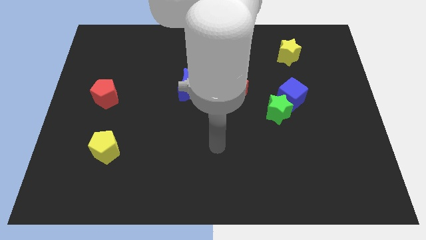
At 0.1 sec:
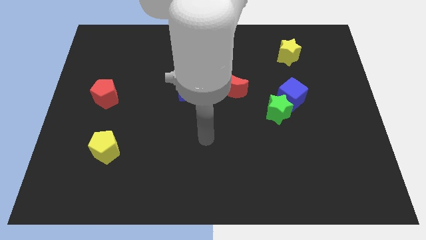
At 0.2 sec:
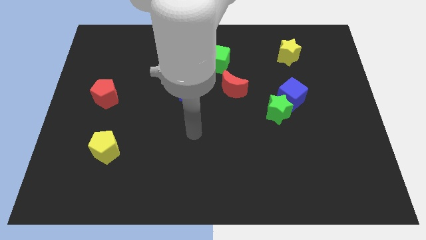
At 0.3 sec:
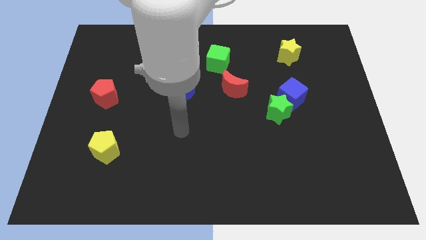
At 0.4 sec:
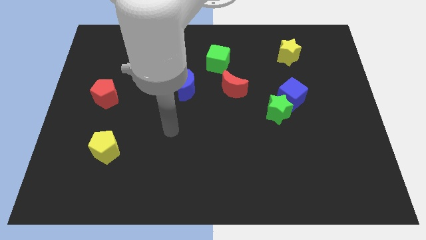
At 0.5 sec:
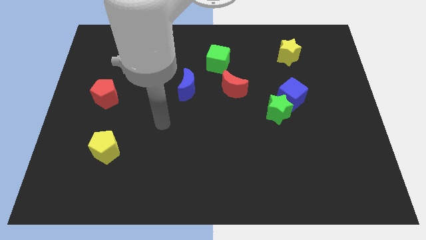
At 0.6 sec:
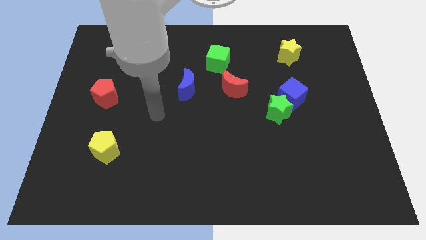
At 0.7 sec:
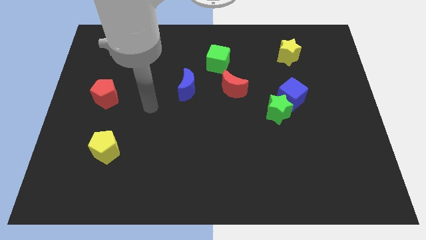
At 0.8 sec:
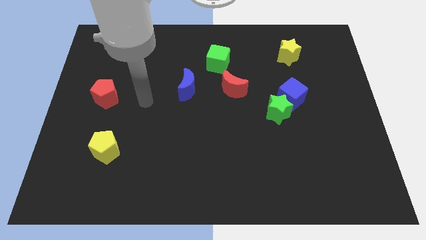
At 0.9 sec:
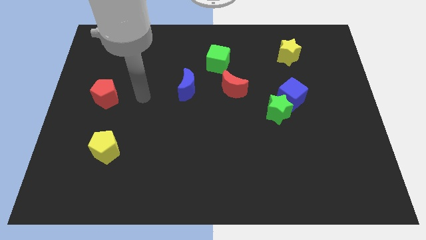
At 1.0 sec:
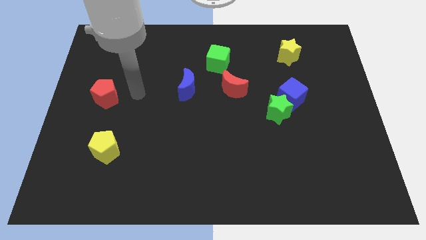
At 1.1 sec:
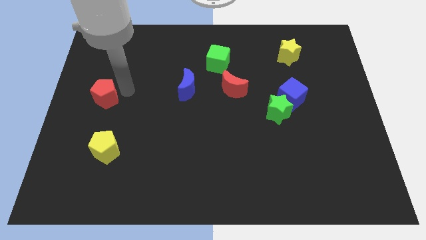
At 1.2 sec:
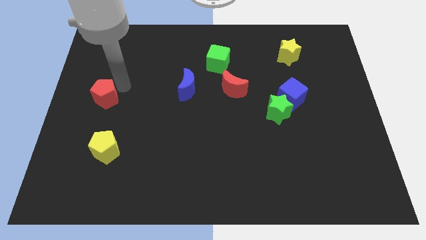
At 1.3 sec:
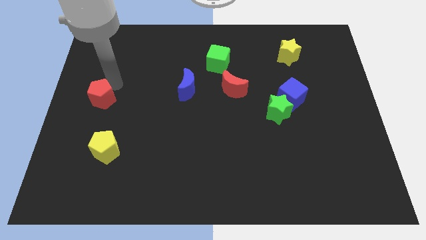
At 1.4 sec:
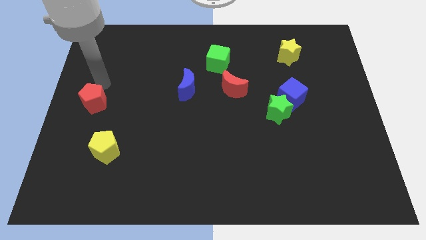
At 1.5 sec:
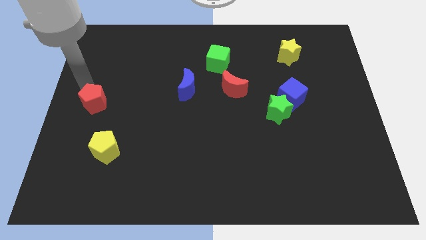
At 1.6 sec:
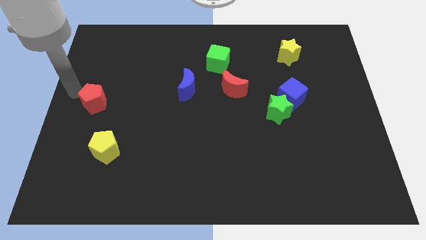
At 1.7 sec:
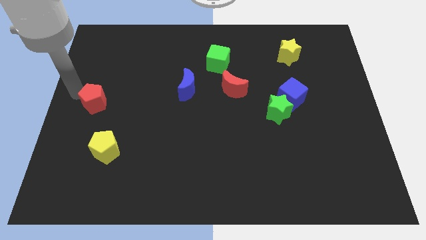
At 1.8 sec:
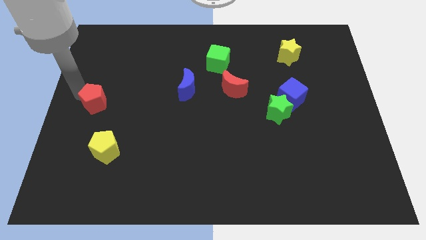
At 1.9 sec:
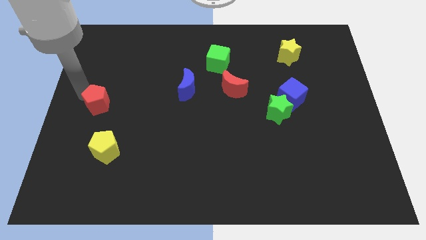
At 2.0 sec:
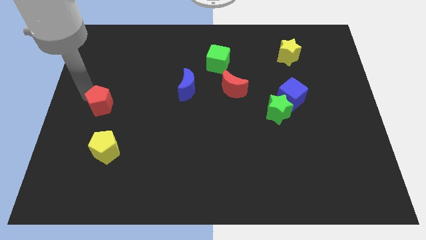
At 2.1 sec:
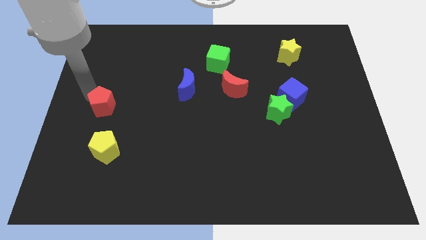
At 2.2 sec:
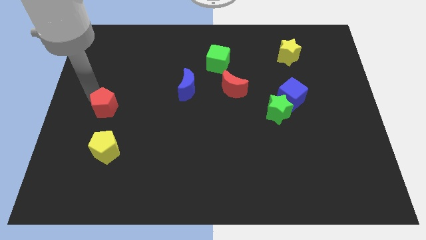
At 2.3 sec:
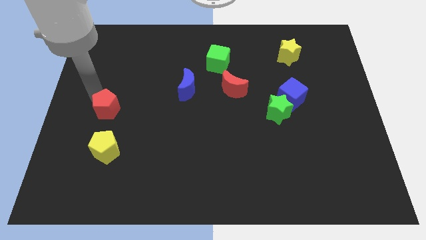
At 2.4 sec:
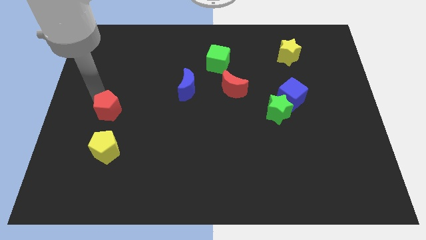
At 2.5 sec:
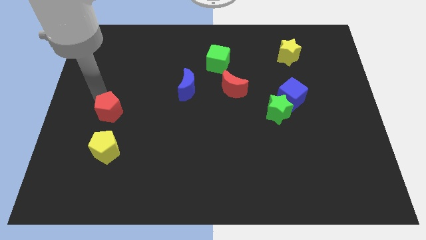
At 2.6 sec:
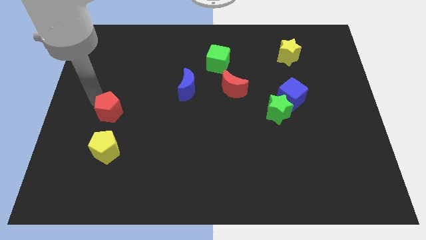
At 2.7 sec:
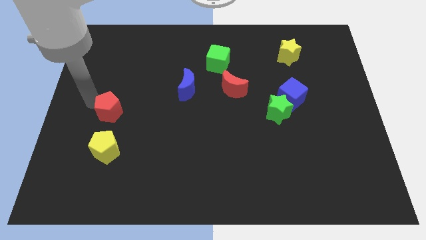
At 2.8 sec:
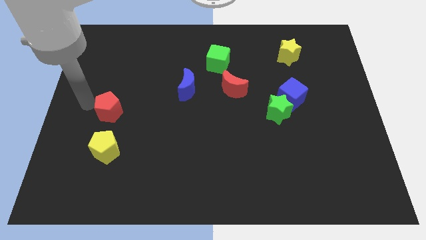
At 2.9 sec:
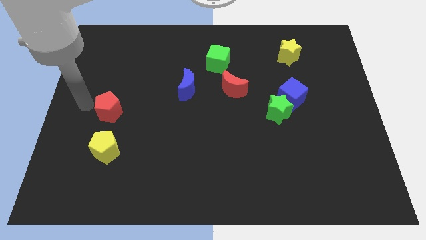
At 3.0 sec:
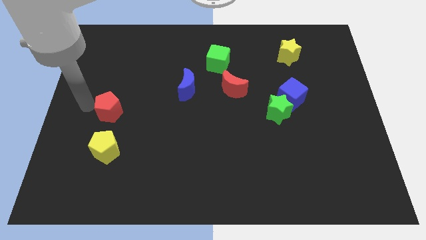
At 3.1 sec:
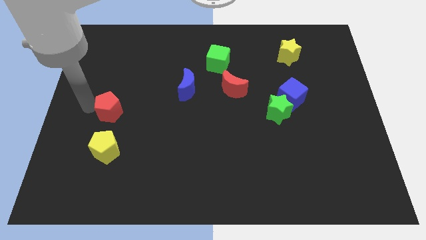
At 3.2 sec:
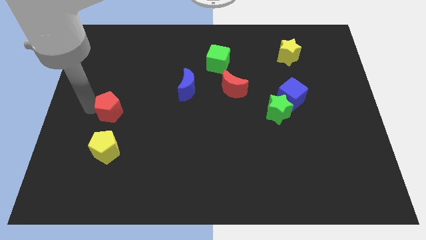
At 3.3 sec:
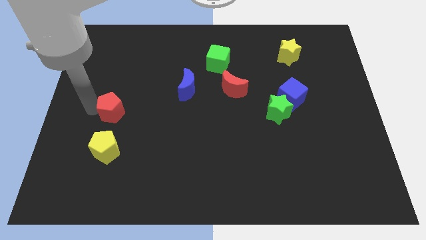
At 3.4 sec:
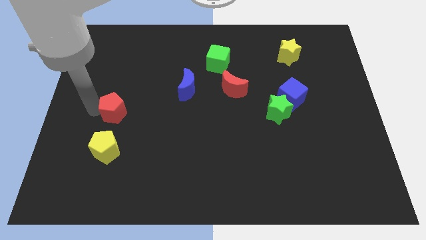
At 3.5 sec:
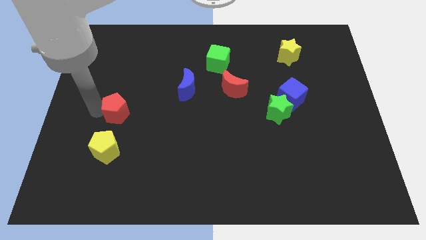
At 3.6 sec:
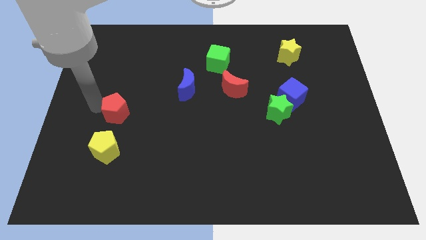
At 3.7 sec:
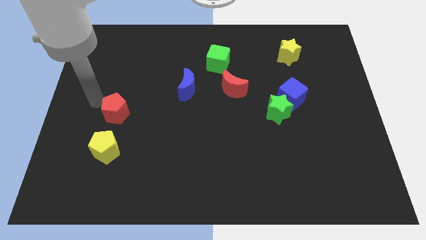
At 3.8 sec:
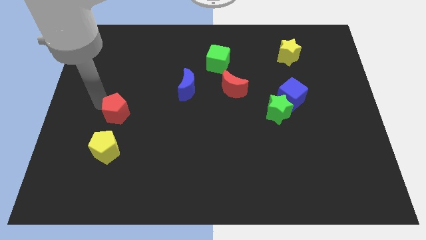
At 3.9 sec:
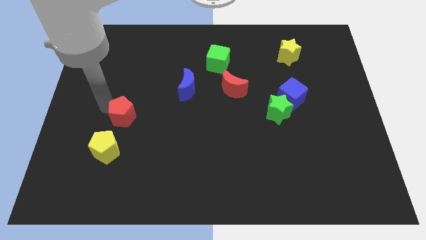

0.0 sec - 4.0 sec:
move the red pentagon somewhat down and then right

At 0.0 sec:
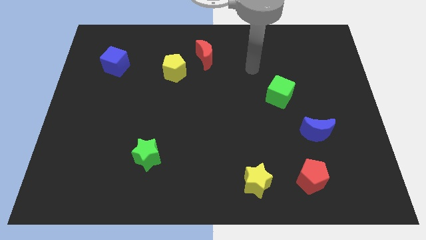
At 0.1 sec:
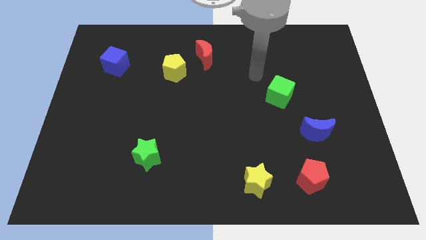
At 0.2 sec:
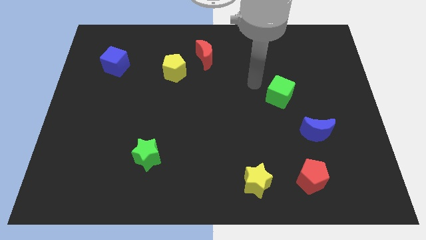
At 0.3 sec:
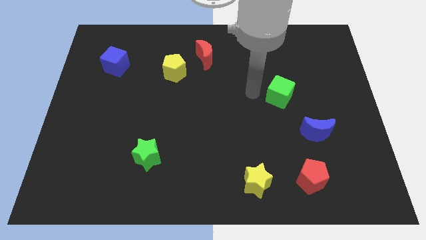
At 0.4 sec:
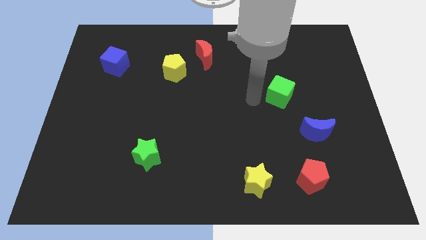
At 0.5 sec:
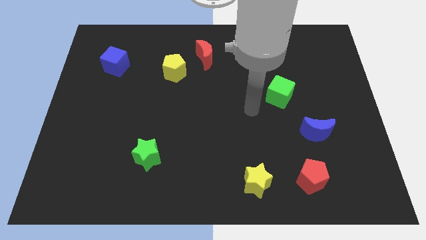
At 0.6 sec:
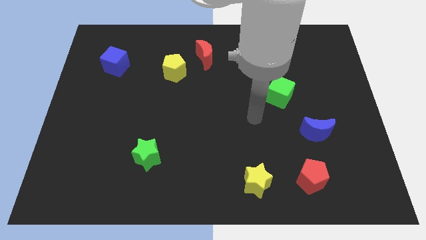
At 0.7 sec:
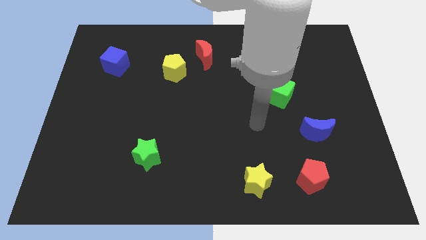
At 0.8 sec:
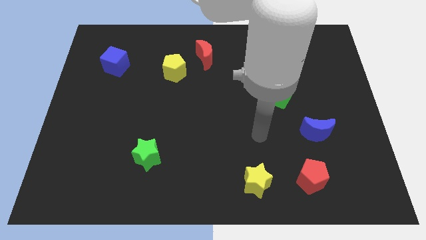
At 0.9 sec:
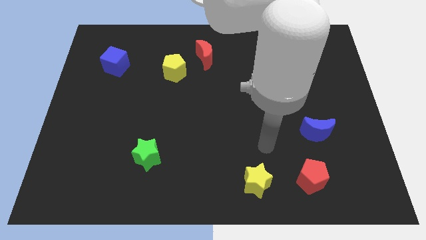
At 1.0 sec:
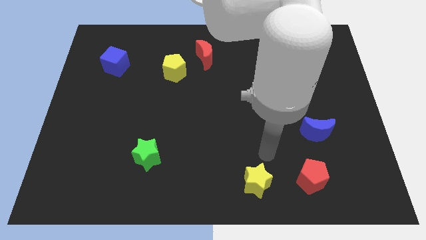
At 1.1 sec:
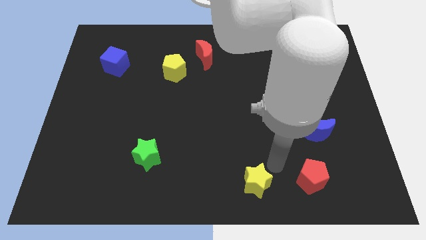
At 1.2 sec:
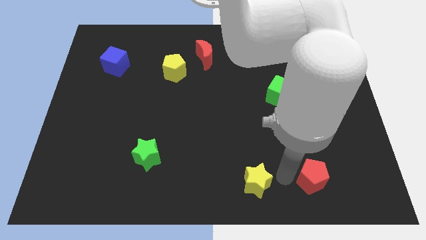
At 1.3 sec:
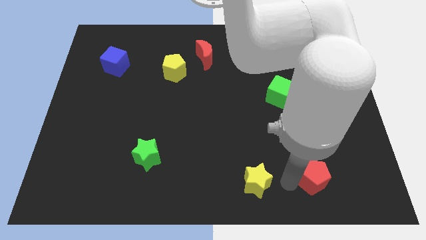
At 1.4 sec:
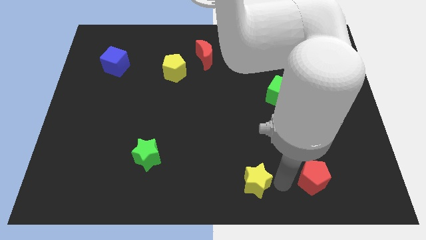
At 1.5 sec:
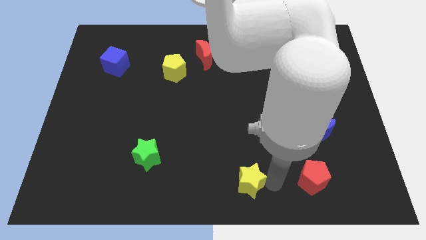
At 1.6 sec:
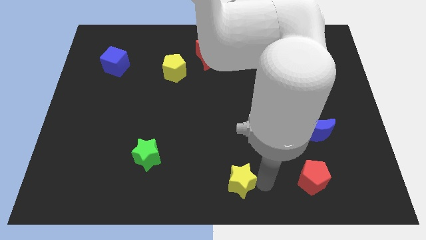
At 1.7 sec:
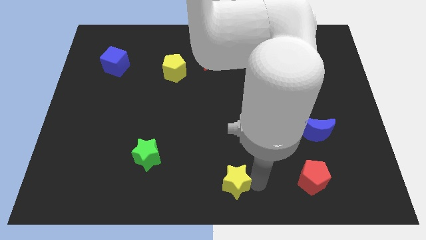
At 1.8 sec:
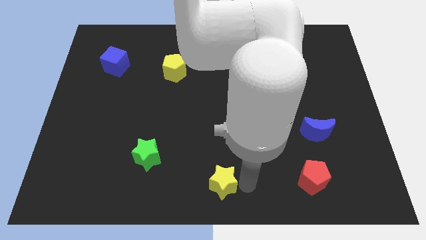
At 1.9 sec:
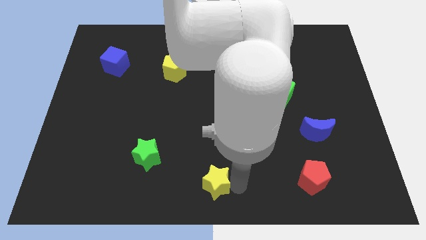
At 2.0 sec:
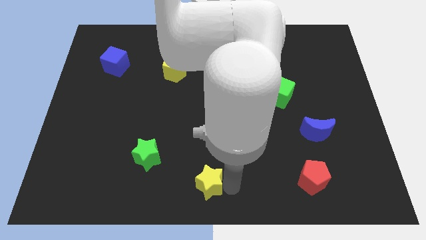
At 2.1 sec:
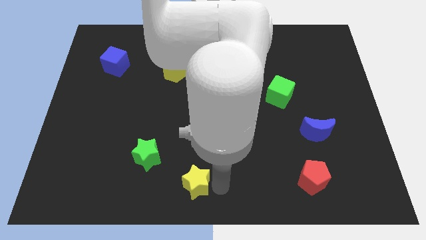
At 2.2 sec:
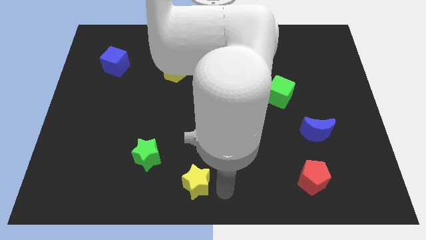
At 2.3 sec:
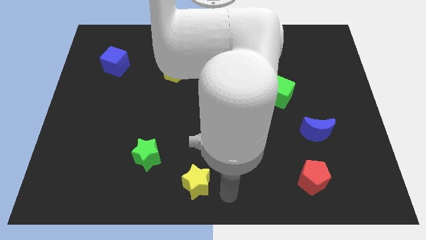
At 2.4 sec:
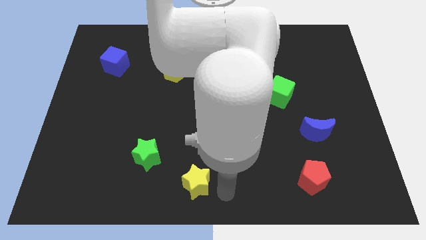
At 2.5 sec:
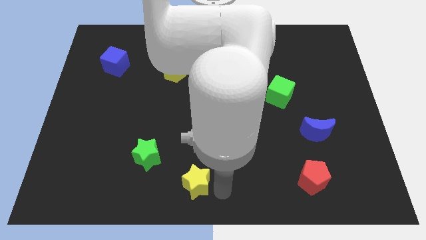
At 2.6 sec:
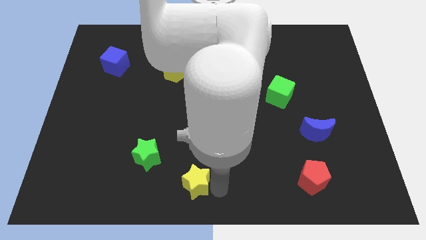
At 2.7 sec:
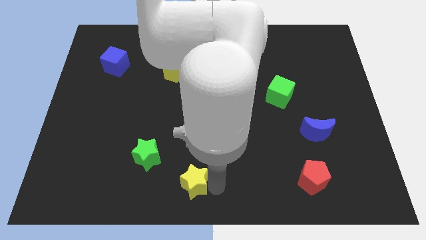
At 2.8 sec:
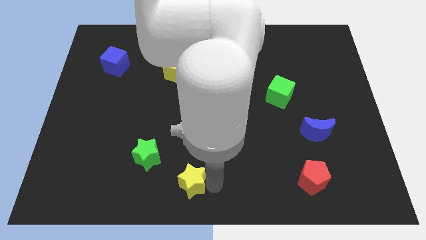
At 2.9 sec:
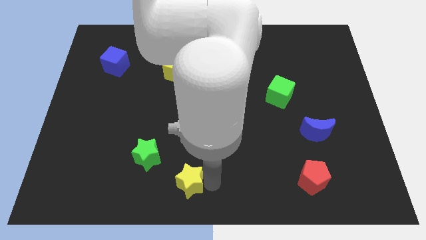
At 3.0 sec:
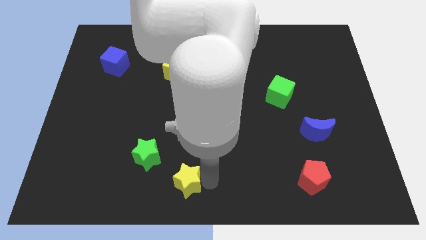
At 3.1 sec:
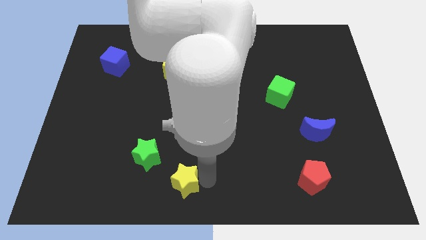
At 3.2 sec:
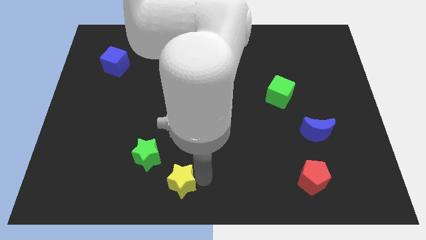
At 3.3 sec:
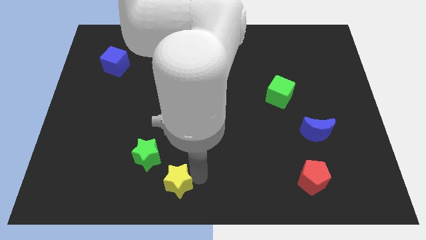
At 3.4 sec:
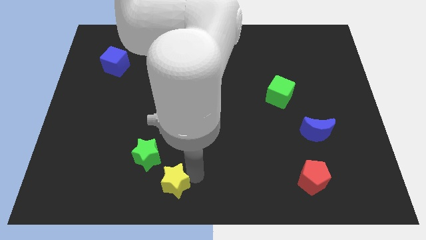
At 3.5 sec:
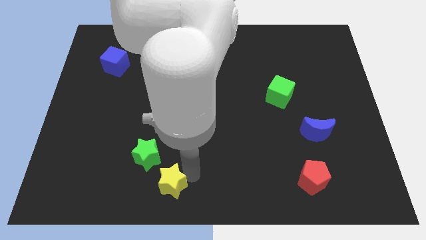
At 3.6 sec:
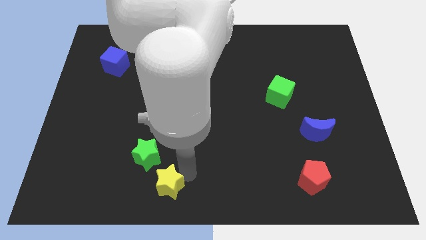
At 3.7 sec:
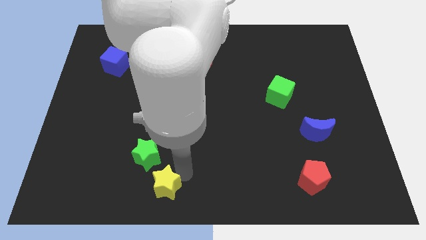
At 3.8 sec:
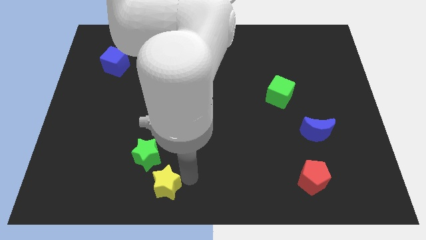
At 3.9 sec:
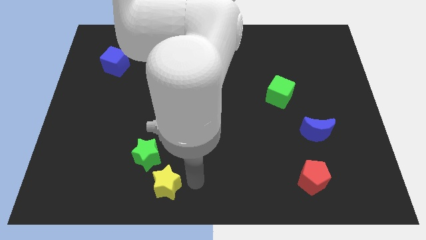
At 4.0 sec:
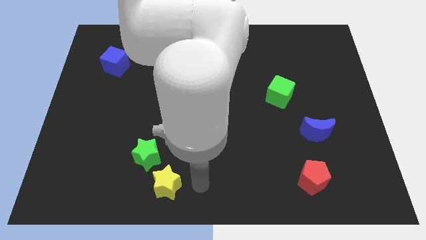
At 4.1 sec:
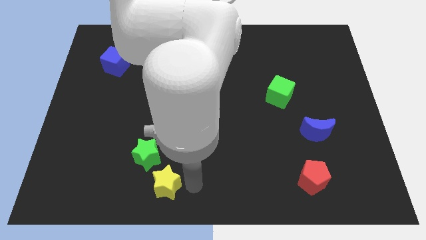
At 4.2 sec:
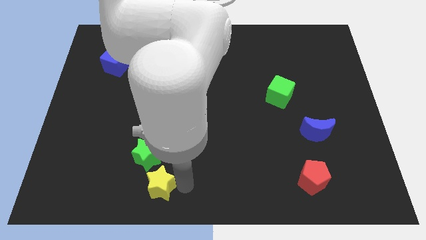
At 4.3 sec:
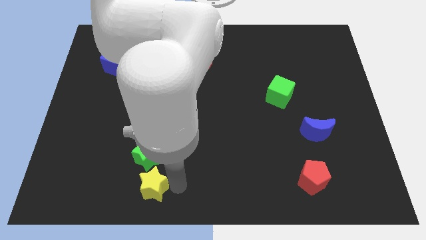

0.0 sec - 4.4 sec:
push the yellow star to the left
